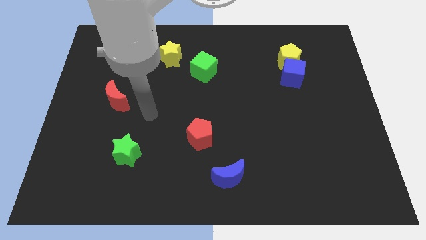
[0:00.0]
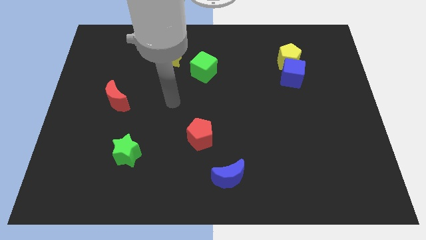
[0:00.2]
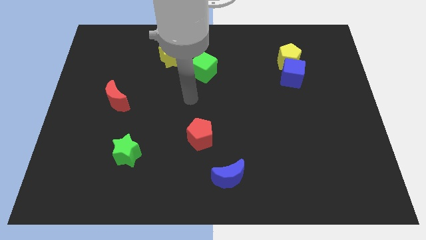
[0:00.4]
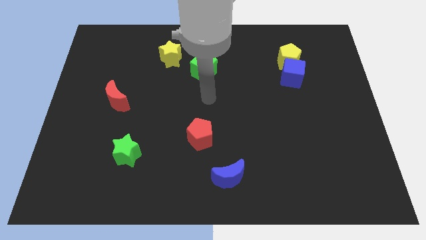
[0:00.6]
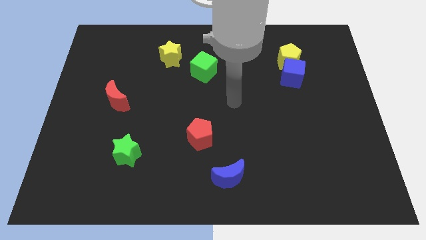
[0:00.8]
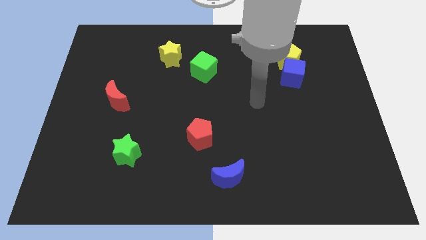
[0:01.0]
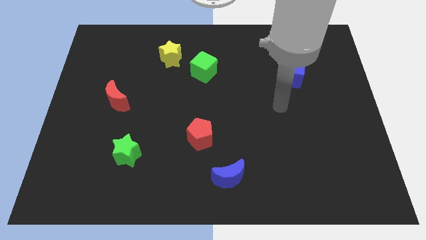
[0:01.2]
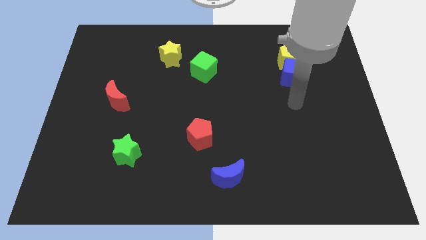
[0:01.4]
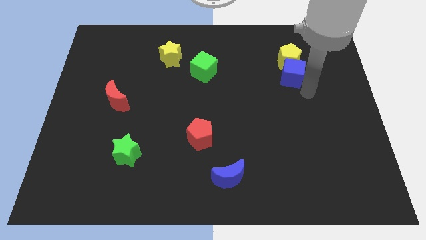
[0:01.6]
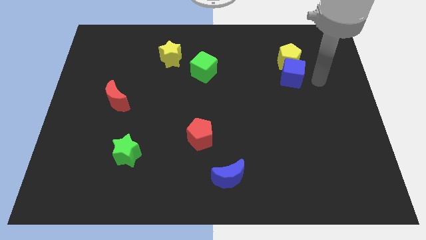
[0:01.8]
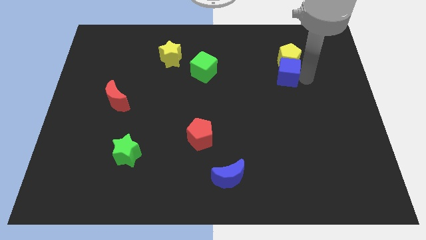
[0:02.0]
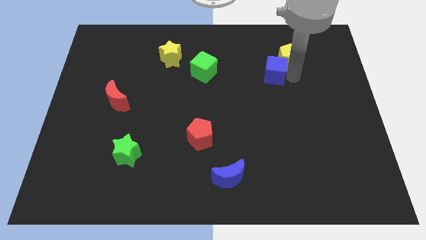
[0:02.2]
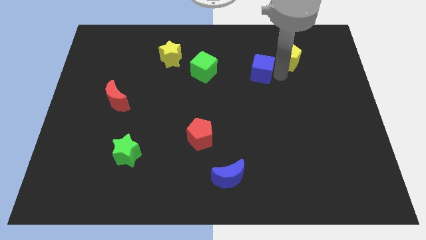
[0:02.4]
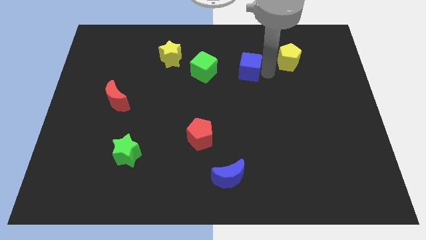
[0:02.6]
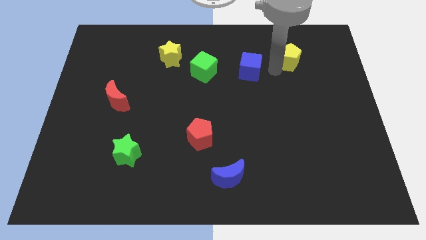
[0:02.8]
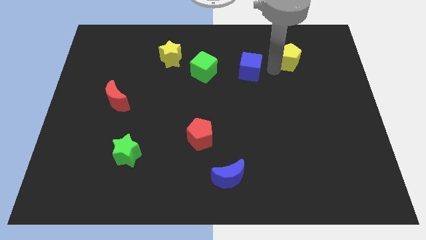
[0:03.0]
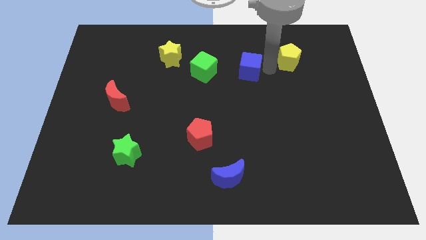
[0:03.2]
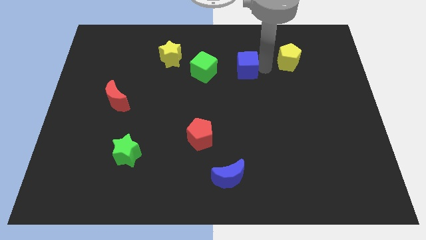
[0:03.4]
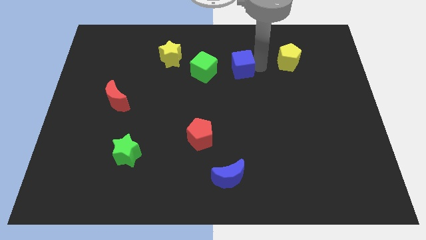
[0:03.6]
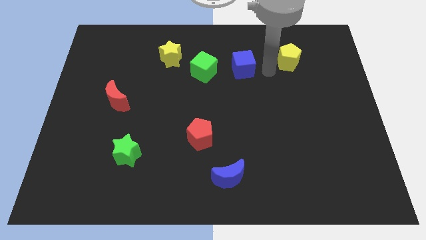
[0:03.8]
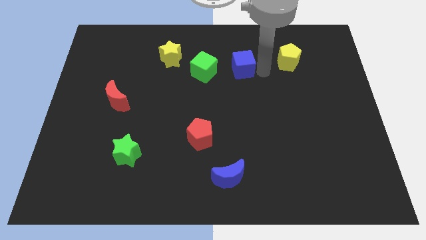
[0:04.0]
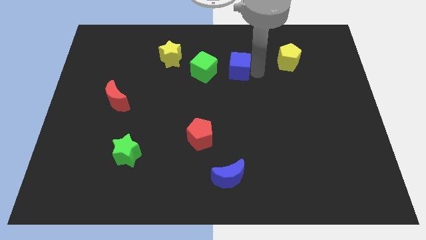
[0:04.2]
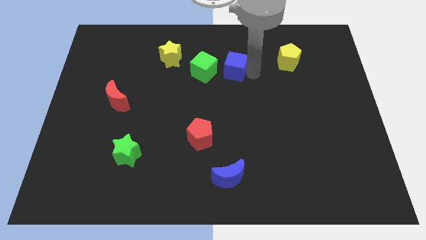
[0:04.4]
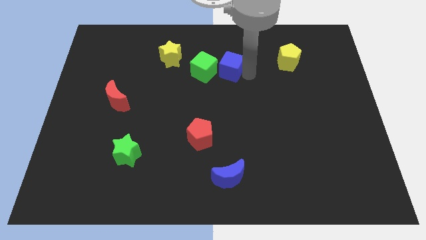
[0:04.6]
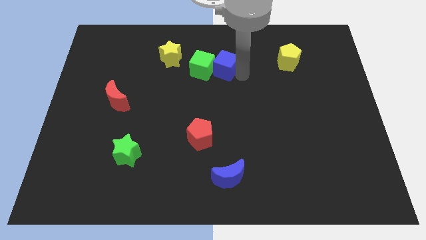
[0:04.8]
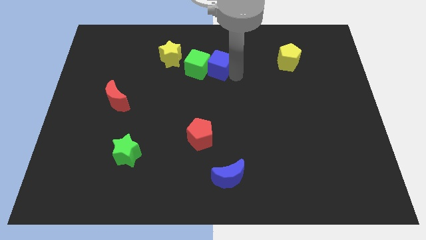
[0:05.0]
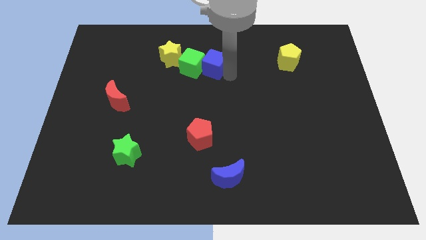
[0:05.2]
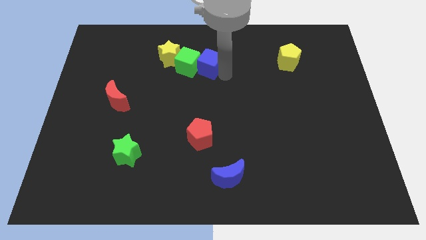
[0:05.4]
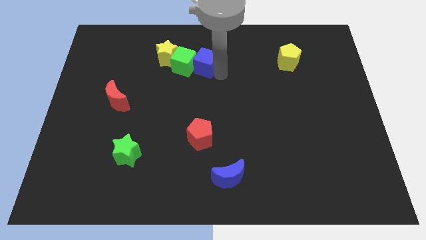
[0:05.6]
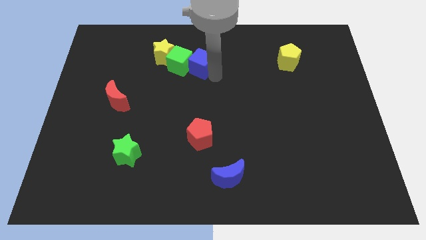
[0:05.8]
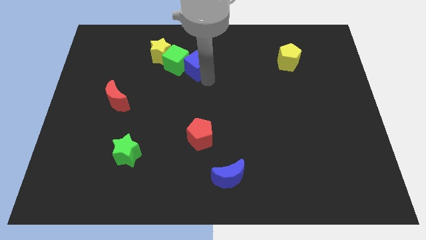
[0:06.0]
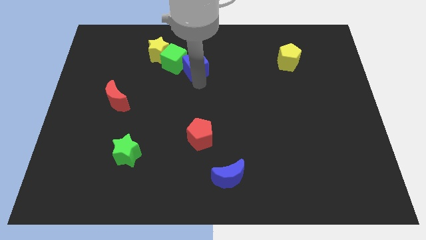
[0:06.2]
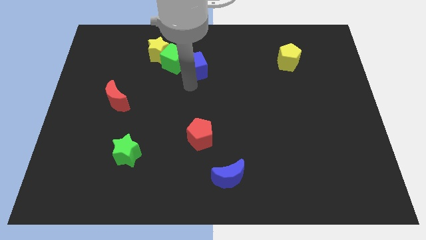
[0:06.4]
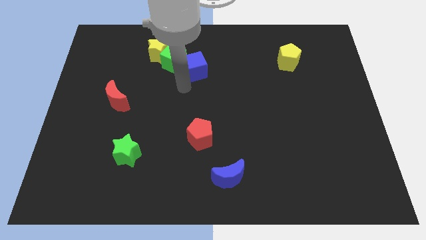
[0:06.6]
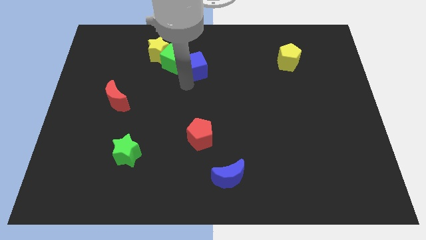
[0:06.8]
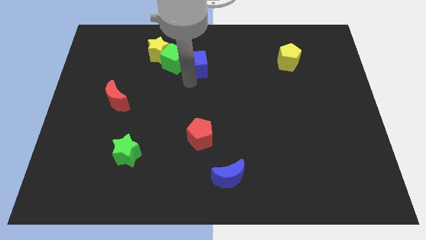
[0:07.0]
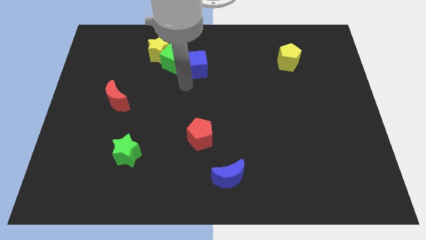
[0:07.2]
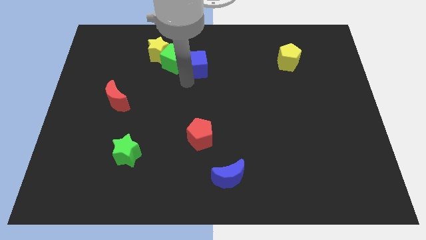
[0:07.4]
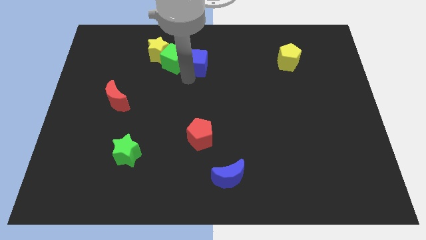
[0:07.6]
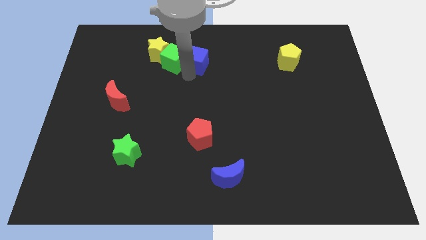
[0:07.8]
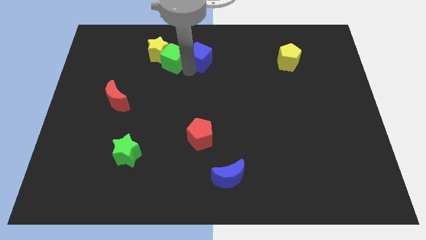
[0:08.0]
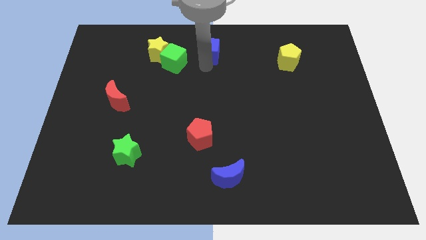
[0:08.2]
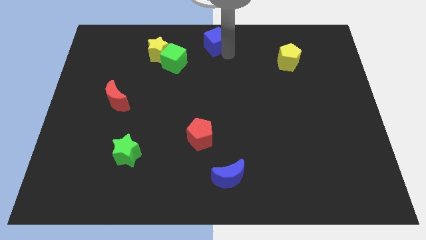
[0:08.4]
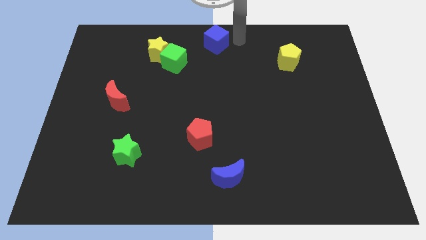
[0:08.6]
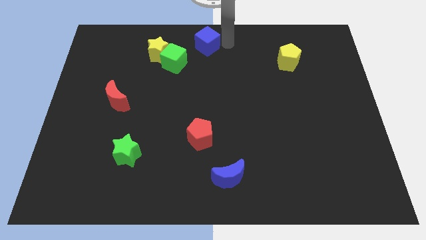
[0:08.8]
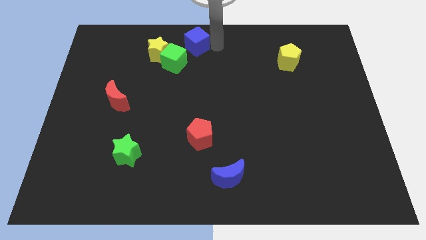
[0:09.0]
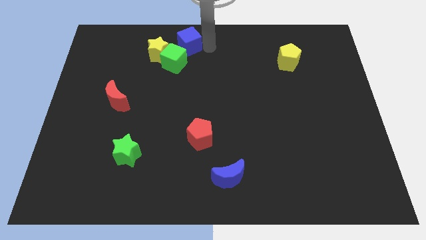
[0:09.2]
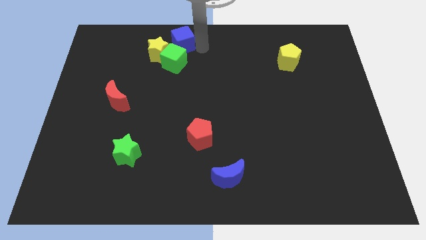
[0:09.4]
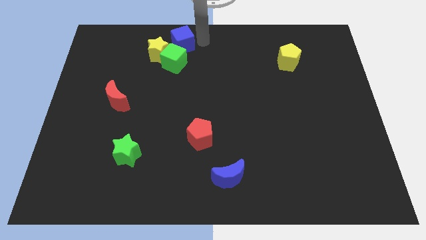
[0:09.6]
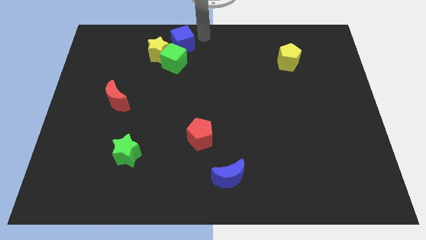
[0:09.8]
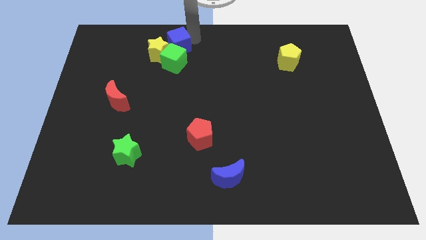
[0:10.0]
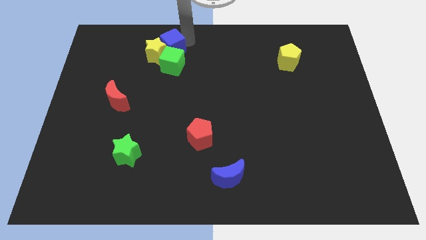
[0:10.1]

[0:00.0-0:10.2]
push the blue cube to the yellow star

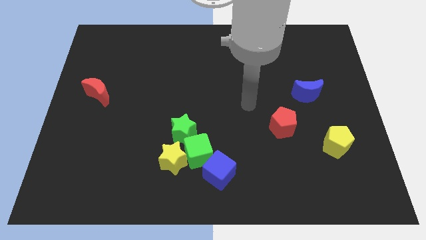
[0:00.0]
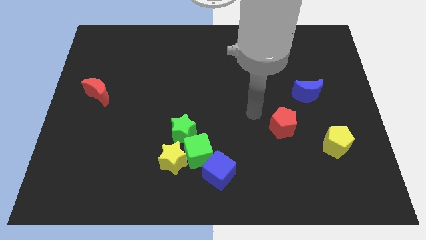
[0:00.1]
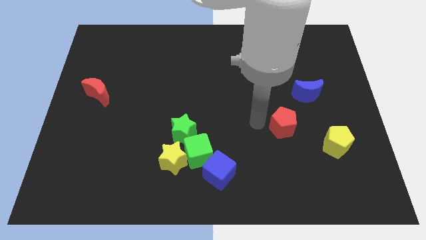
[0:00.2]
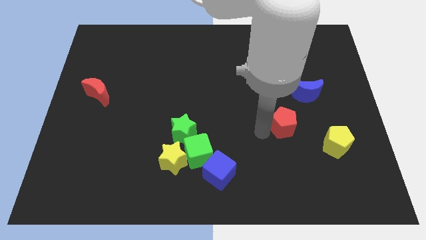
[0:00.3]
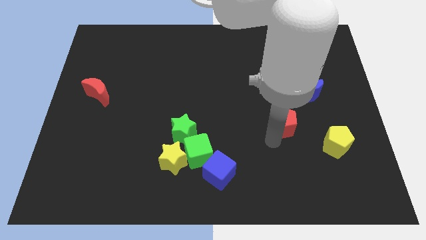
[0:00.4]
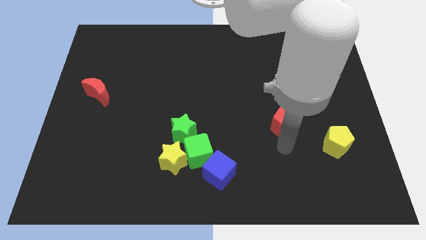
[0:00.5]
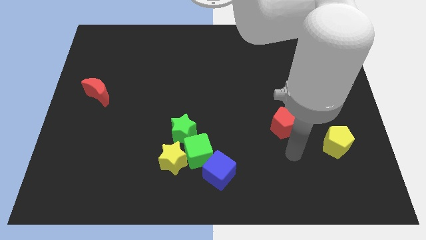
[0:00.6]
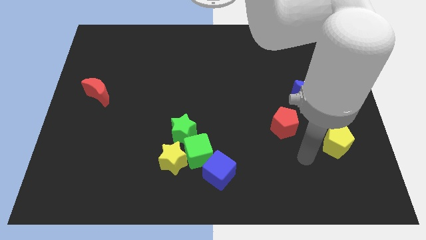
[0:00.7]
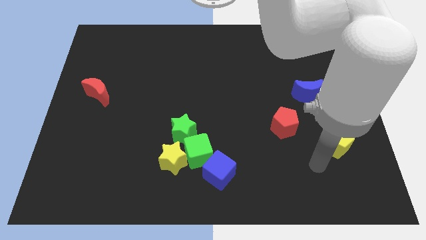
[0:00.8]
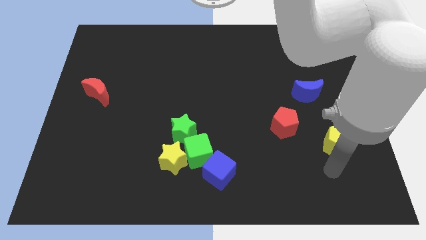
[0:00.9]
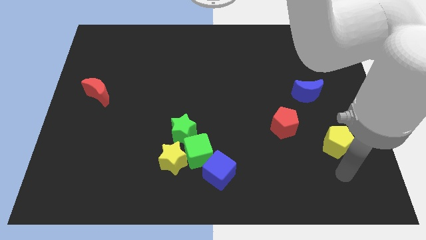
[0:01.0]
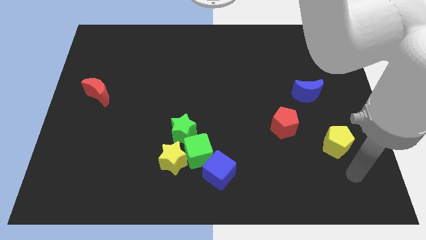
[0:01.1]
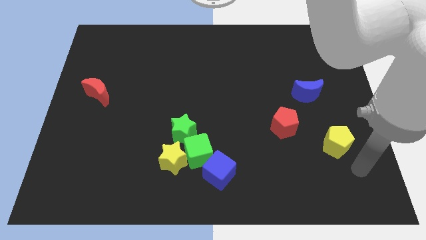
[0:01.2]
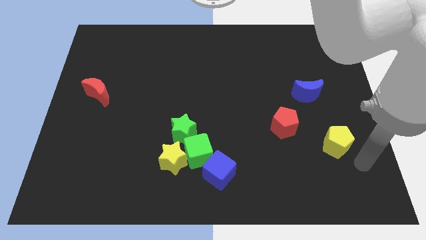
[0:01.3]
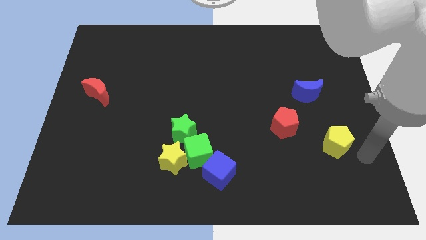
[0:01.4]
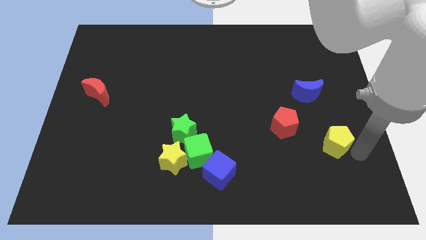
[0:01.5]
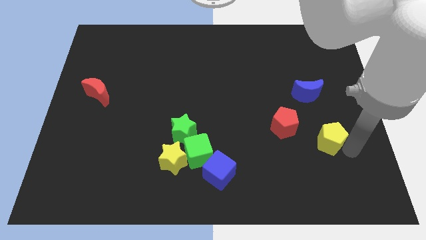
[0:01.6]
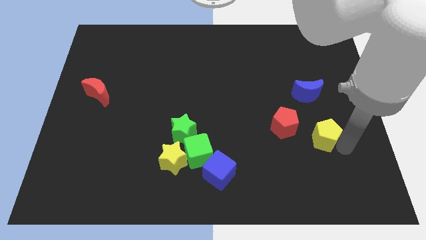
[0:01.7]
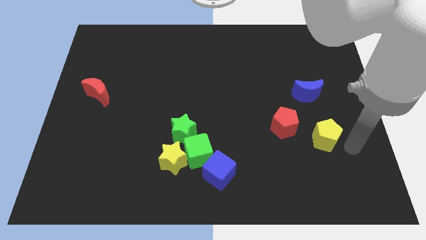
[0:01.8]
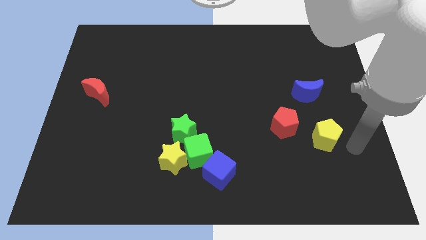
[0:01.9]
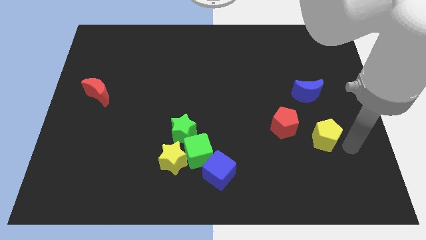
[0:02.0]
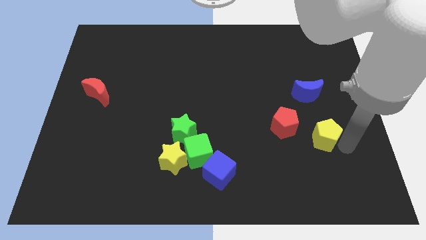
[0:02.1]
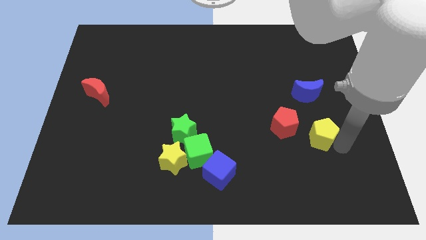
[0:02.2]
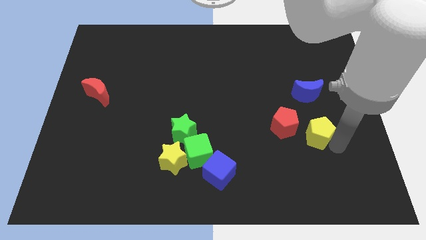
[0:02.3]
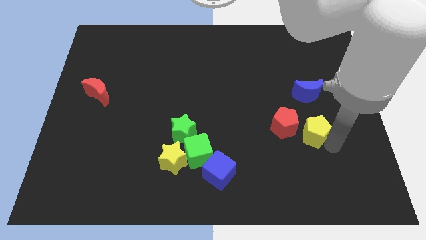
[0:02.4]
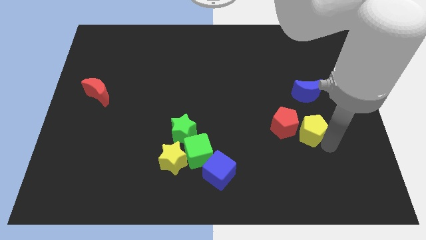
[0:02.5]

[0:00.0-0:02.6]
move the yellow pentagon towards the red pentagon
